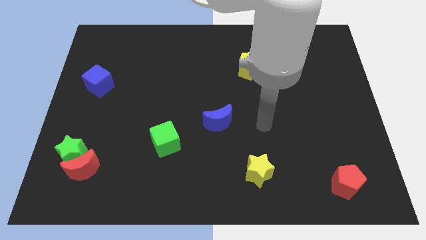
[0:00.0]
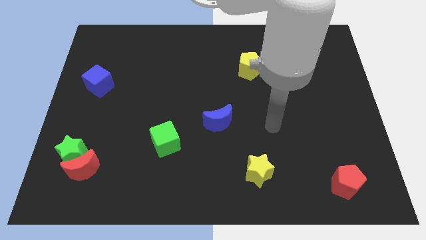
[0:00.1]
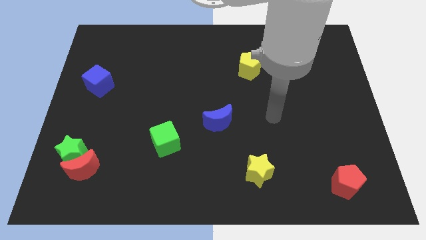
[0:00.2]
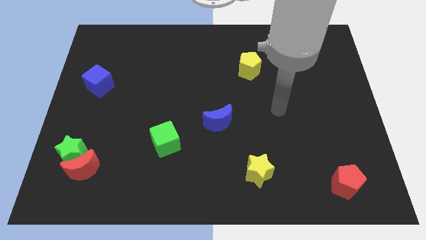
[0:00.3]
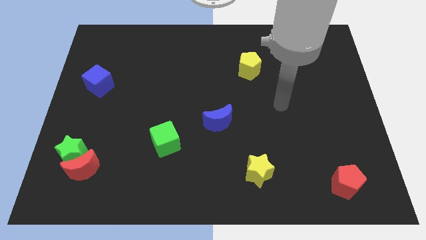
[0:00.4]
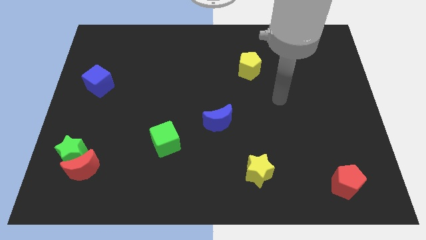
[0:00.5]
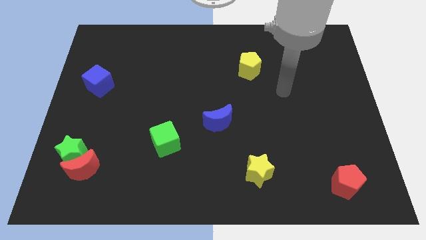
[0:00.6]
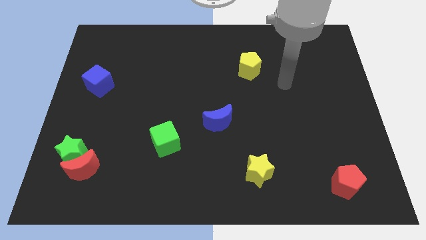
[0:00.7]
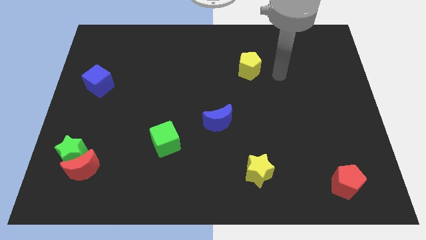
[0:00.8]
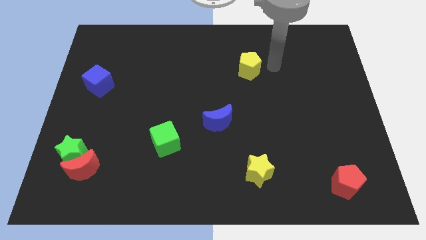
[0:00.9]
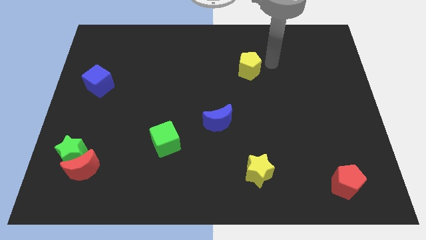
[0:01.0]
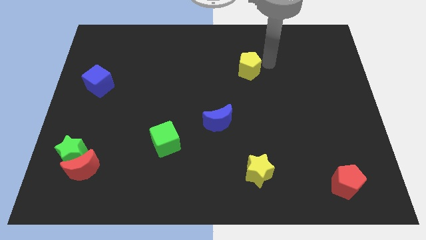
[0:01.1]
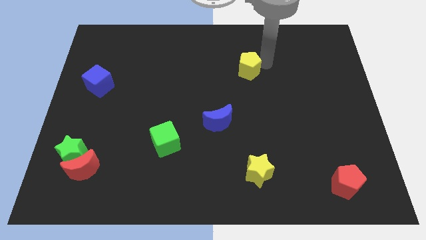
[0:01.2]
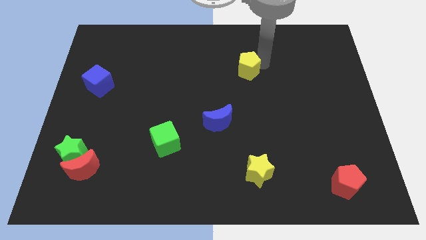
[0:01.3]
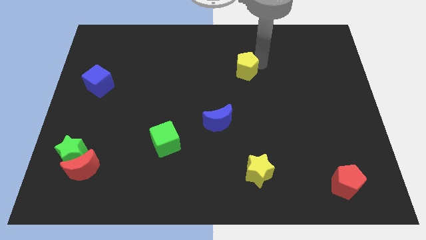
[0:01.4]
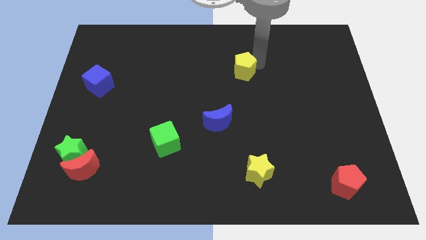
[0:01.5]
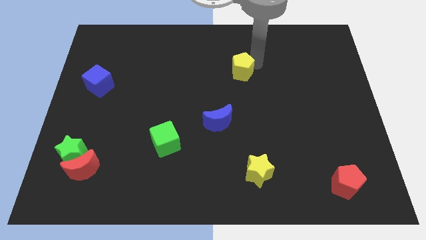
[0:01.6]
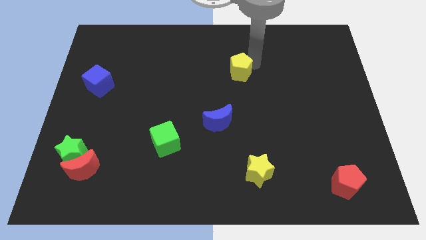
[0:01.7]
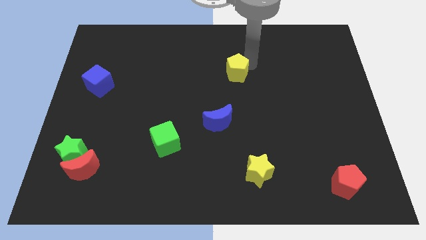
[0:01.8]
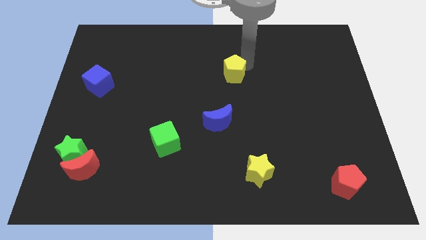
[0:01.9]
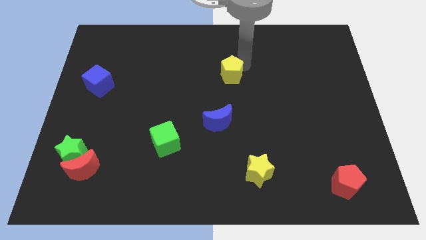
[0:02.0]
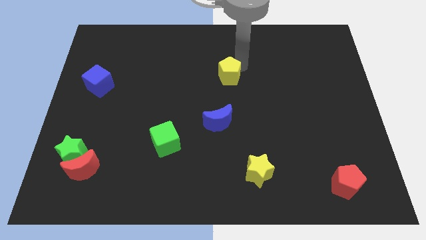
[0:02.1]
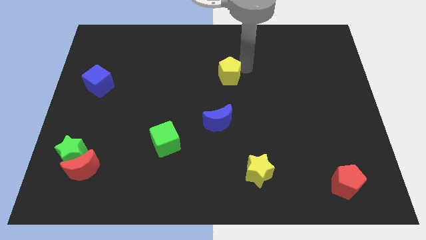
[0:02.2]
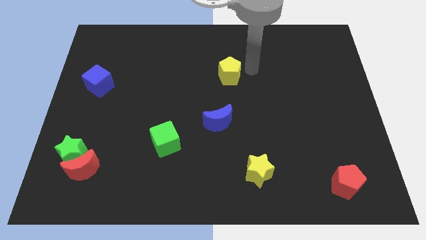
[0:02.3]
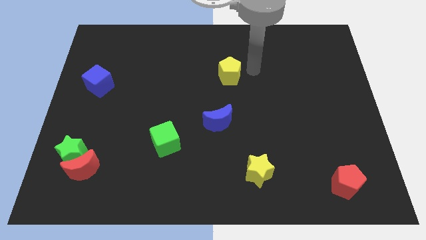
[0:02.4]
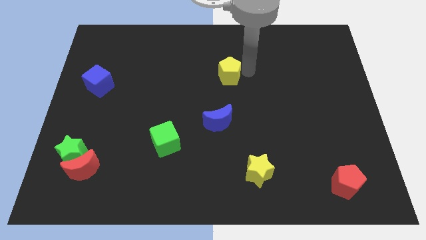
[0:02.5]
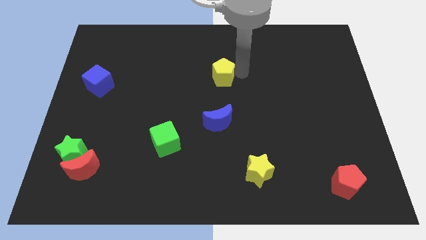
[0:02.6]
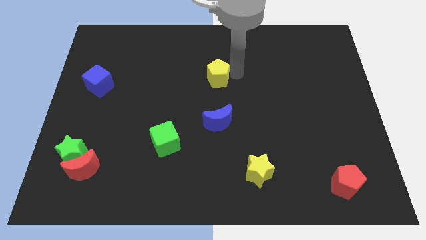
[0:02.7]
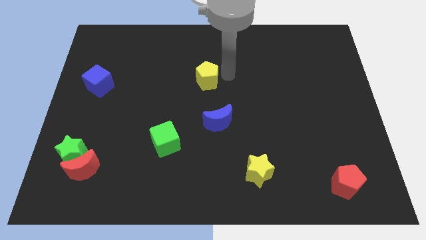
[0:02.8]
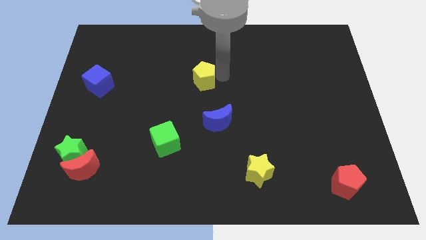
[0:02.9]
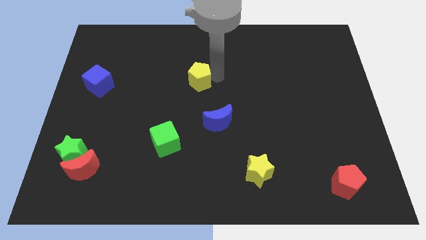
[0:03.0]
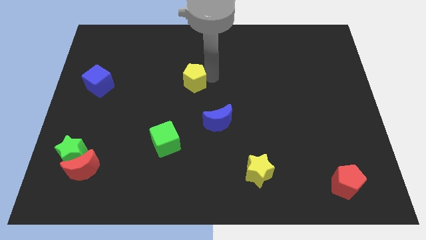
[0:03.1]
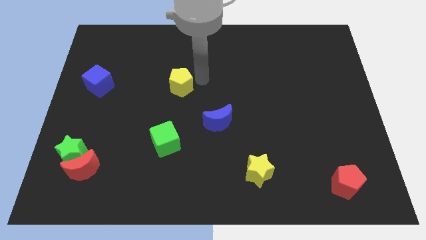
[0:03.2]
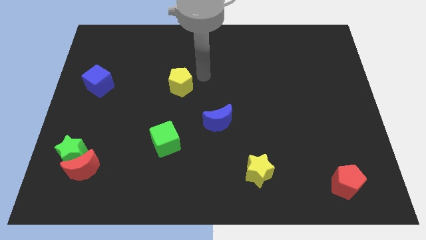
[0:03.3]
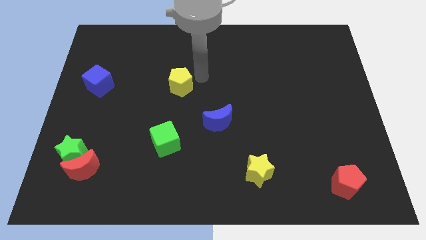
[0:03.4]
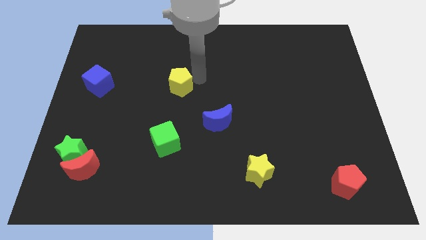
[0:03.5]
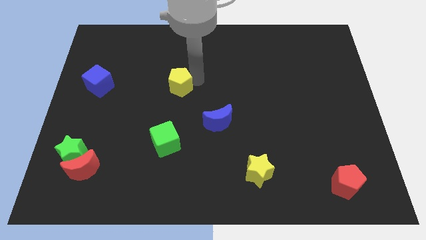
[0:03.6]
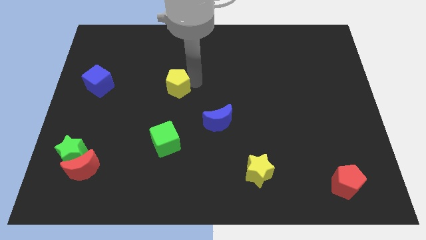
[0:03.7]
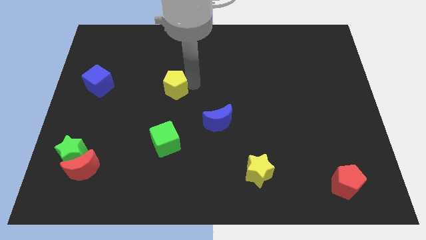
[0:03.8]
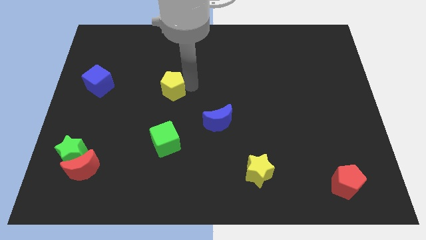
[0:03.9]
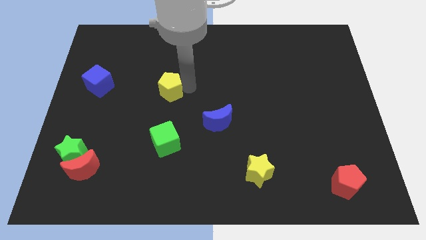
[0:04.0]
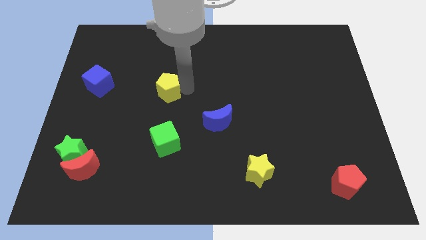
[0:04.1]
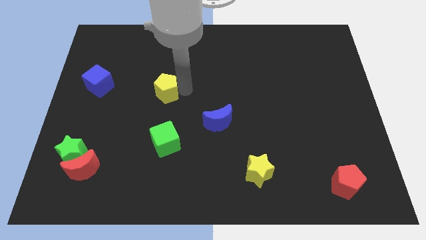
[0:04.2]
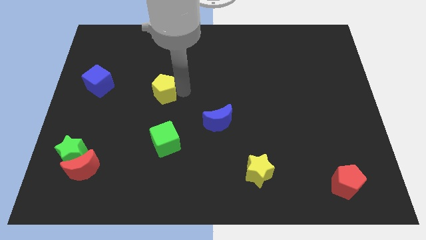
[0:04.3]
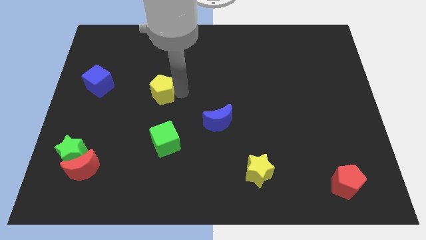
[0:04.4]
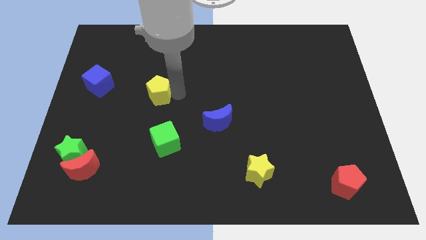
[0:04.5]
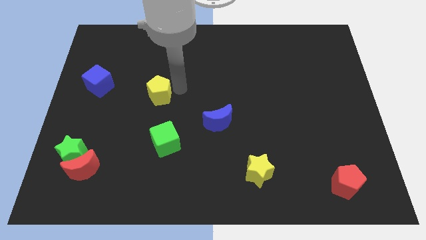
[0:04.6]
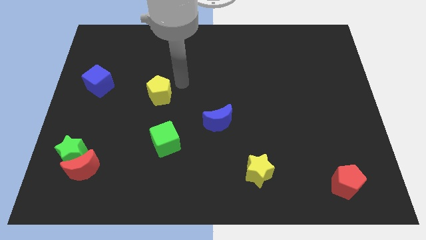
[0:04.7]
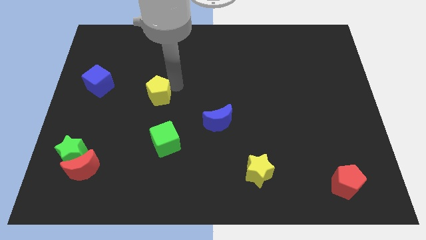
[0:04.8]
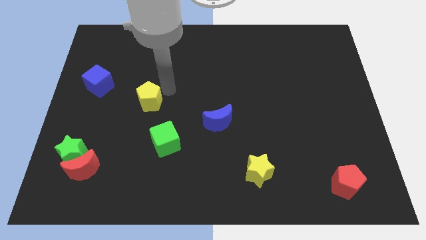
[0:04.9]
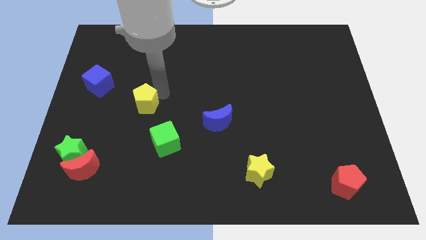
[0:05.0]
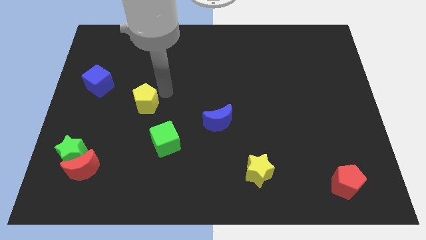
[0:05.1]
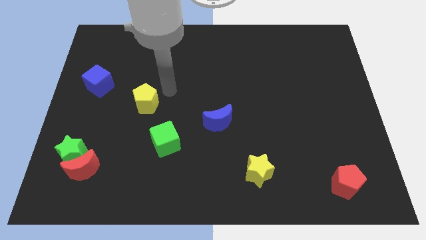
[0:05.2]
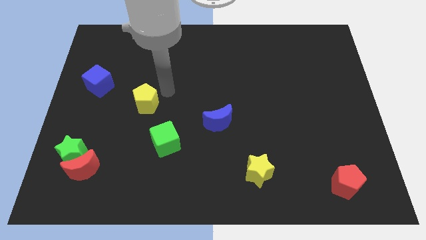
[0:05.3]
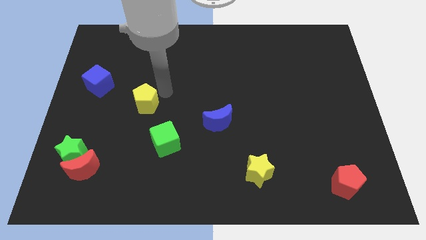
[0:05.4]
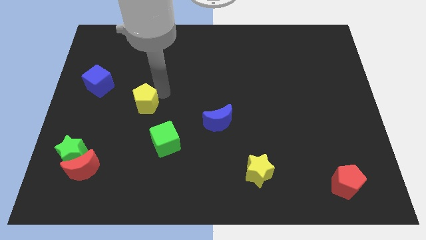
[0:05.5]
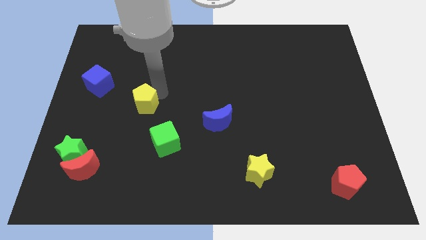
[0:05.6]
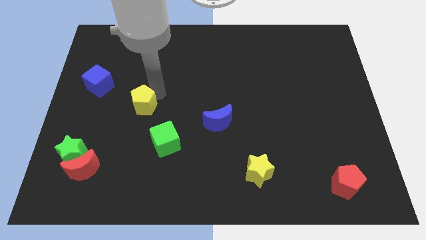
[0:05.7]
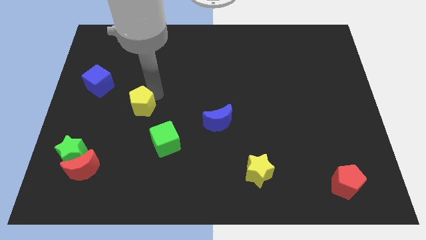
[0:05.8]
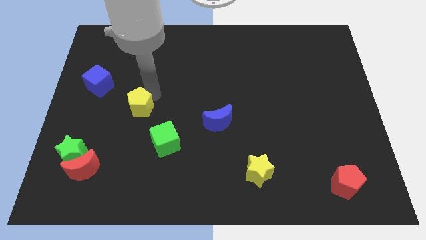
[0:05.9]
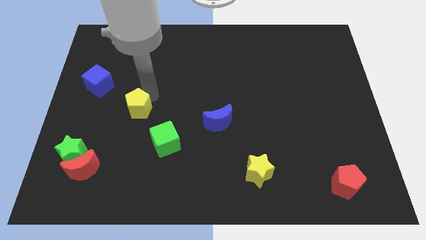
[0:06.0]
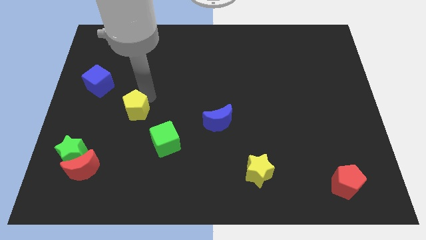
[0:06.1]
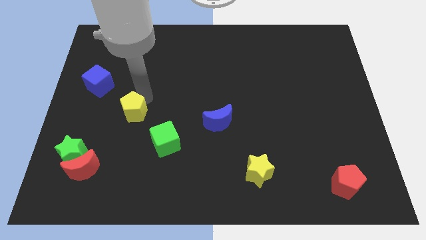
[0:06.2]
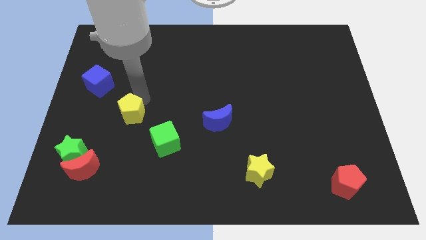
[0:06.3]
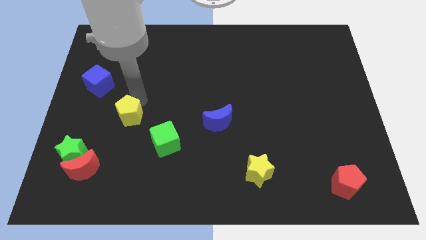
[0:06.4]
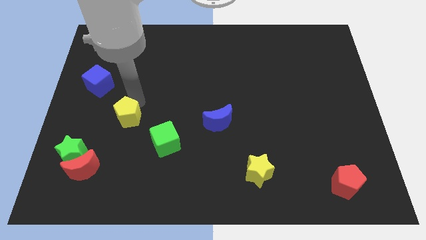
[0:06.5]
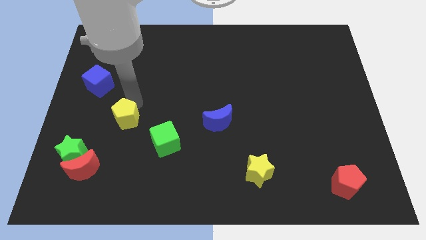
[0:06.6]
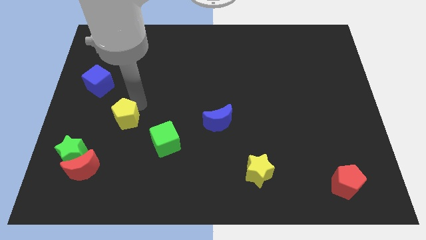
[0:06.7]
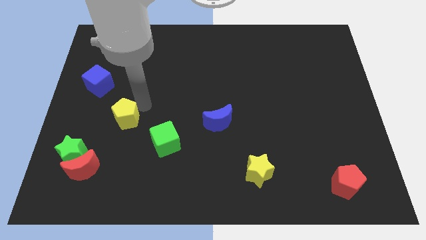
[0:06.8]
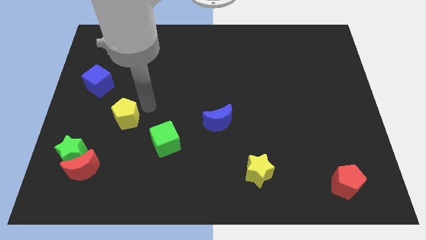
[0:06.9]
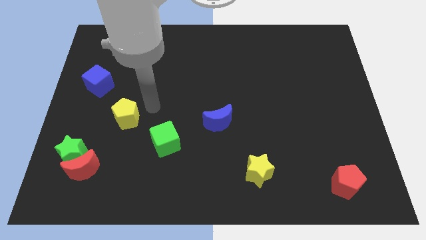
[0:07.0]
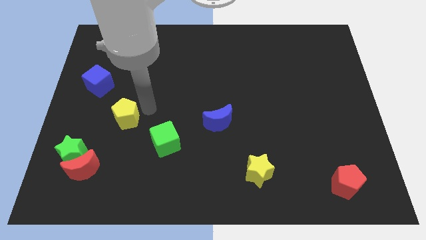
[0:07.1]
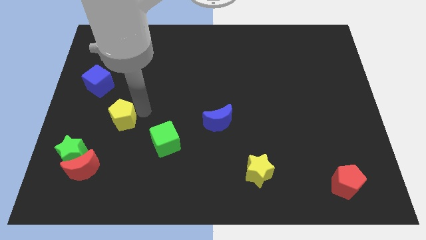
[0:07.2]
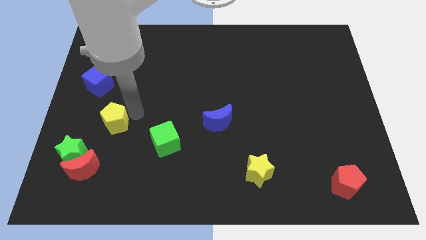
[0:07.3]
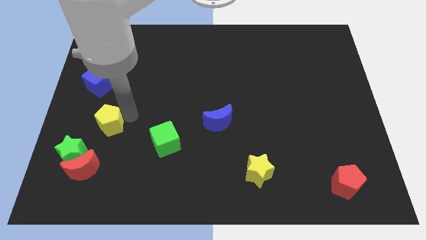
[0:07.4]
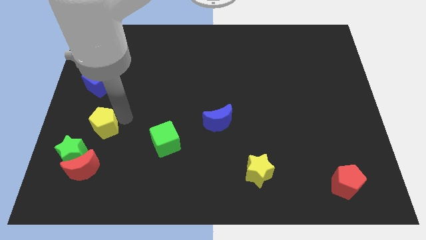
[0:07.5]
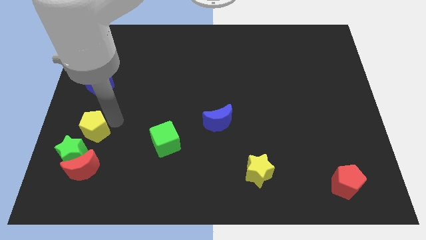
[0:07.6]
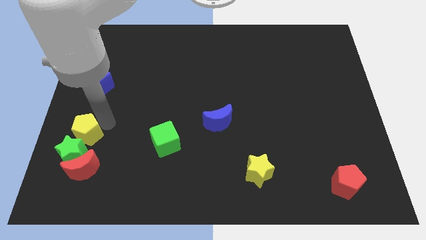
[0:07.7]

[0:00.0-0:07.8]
move the yellow pentagon next to the green star
